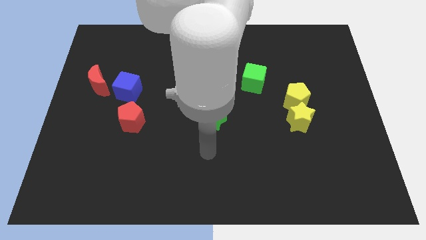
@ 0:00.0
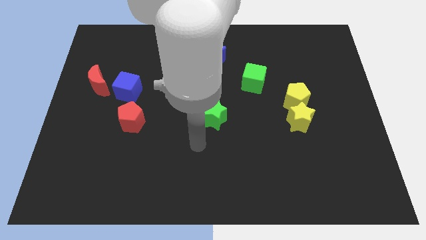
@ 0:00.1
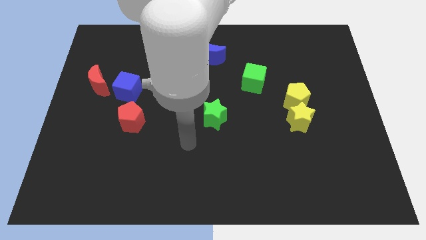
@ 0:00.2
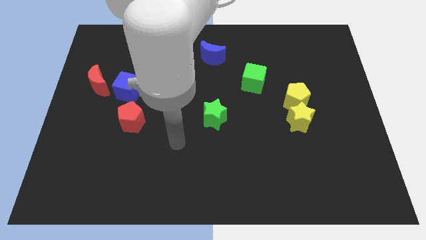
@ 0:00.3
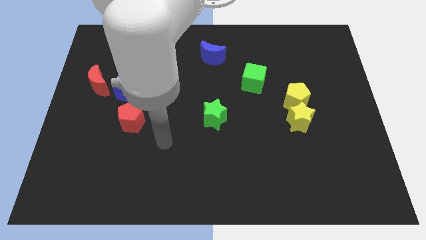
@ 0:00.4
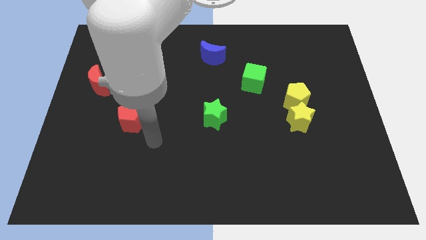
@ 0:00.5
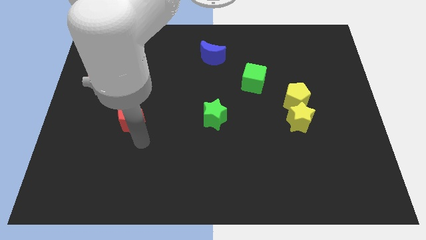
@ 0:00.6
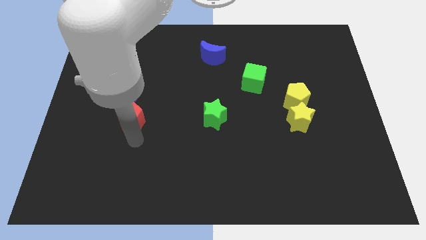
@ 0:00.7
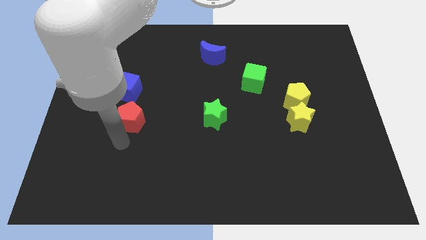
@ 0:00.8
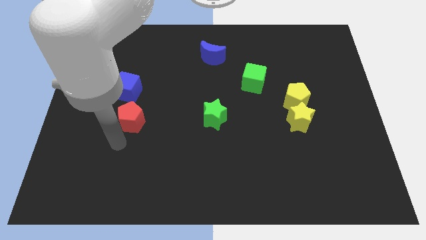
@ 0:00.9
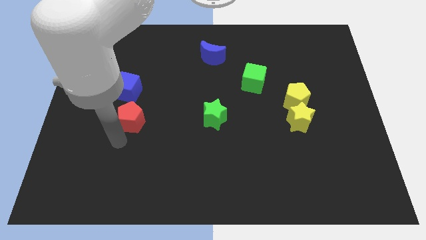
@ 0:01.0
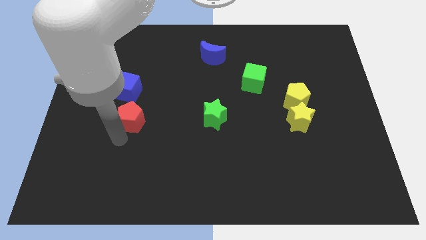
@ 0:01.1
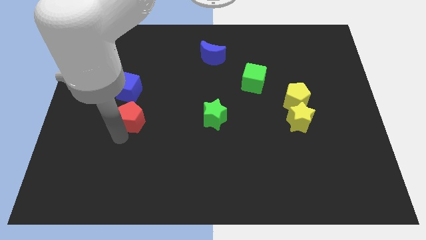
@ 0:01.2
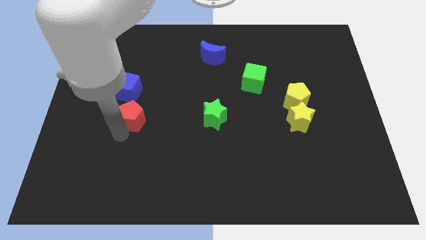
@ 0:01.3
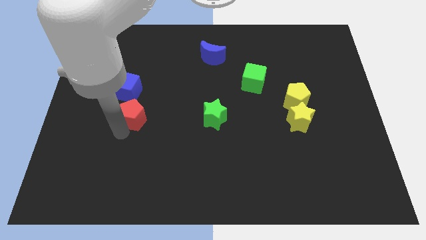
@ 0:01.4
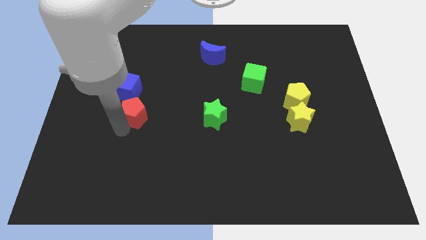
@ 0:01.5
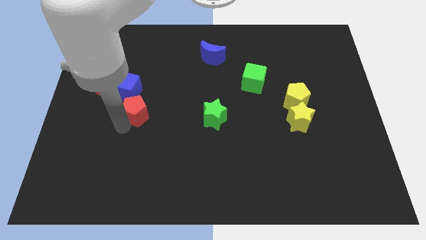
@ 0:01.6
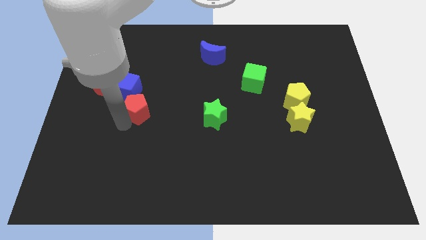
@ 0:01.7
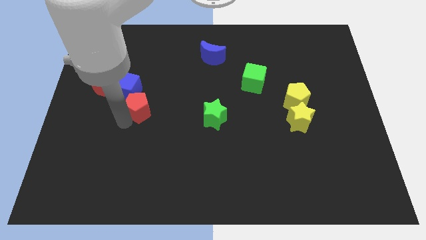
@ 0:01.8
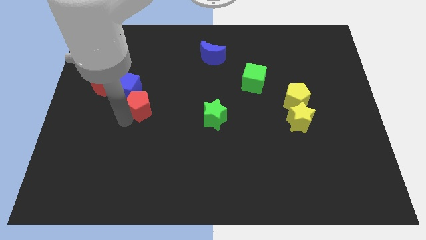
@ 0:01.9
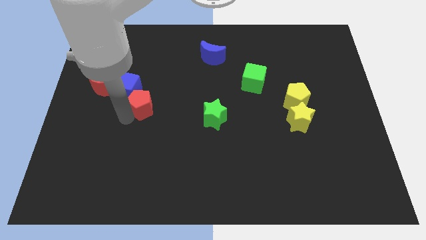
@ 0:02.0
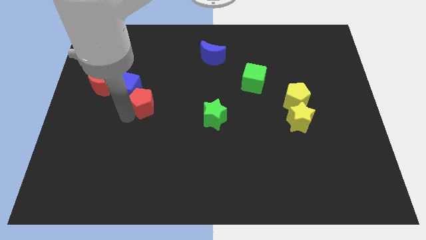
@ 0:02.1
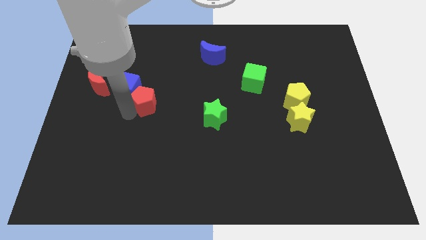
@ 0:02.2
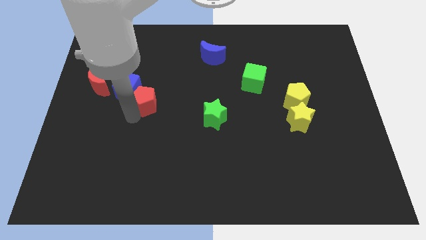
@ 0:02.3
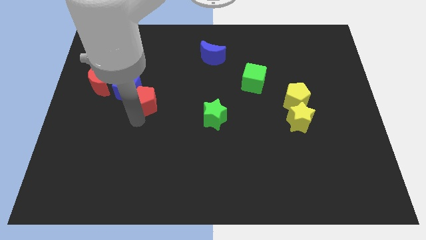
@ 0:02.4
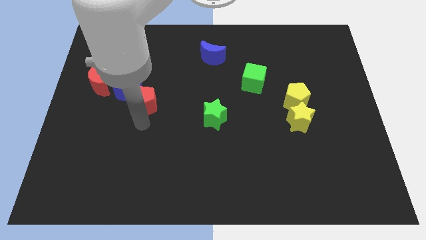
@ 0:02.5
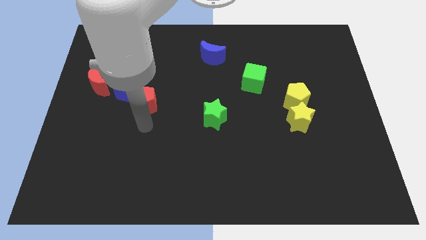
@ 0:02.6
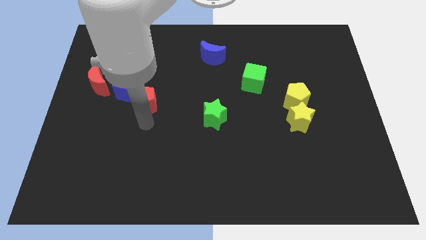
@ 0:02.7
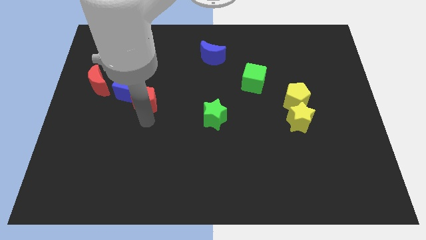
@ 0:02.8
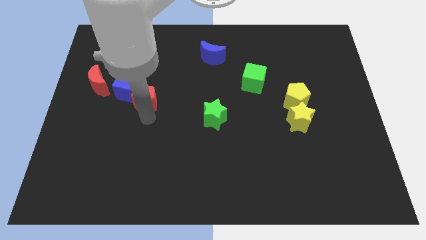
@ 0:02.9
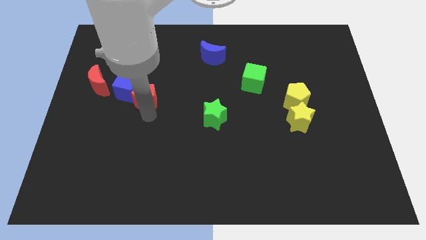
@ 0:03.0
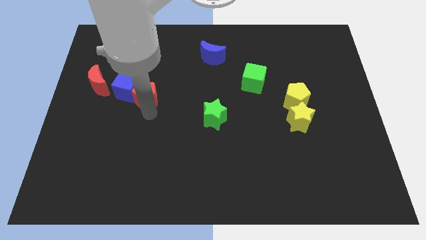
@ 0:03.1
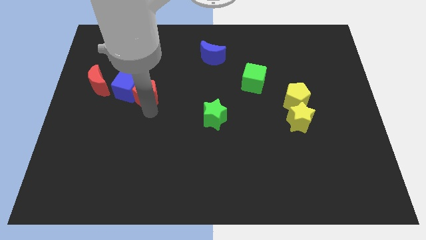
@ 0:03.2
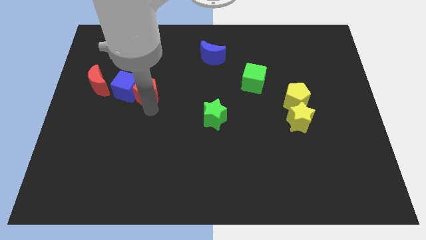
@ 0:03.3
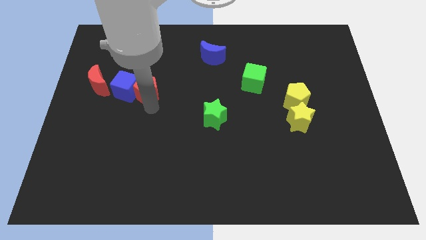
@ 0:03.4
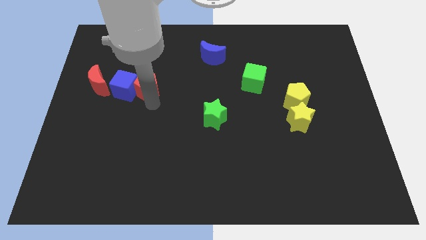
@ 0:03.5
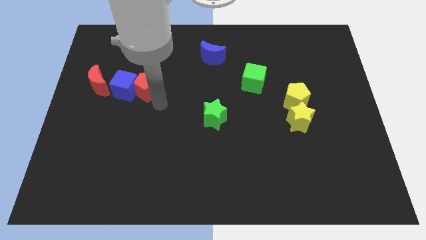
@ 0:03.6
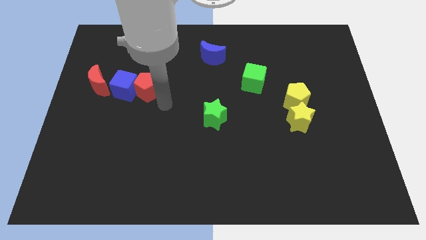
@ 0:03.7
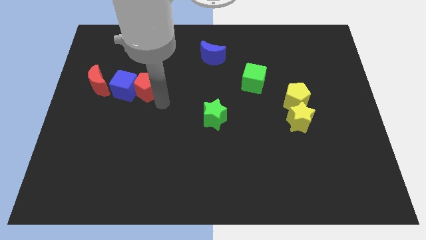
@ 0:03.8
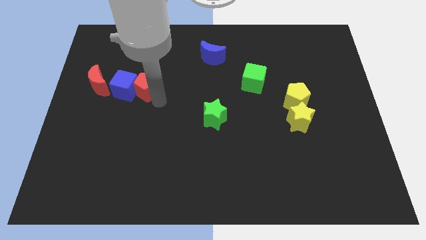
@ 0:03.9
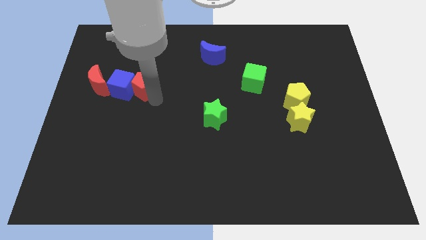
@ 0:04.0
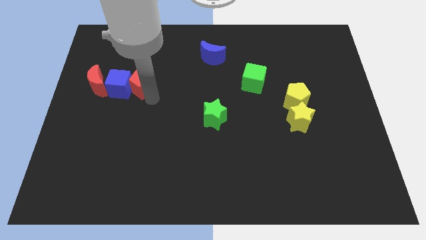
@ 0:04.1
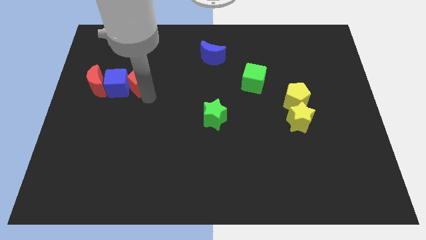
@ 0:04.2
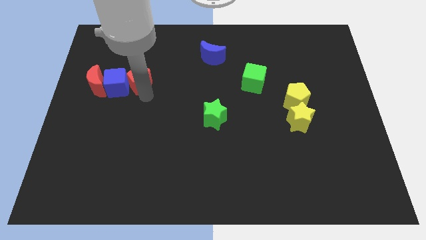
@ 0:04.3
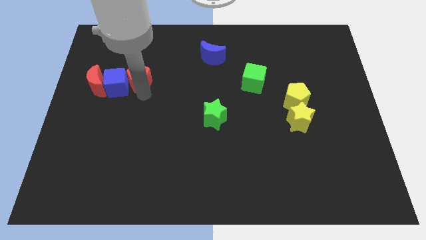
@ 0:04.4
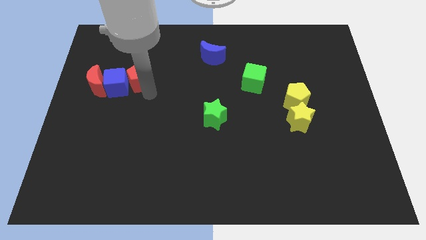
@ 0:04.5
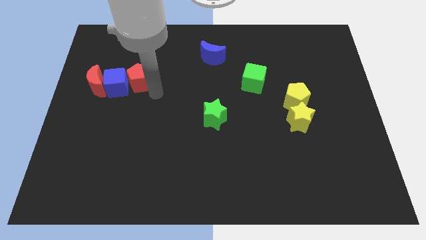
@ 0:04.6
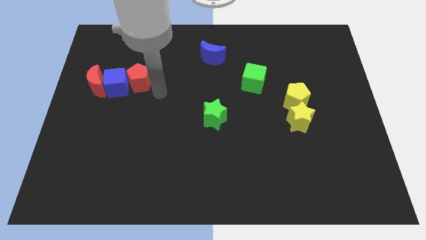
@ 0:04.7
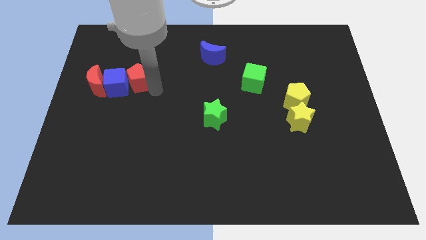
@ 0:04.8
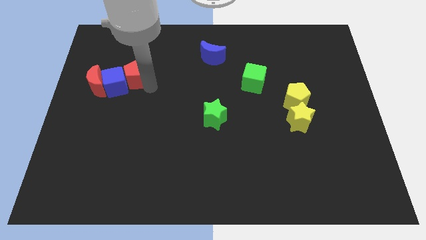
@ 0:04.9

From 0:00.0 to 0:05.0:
move the red pentagon to the top right of the red moon

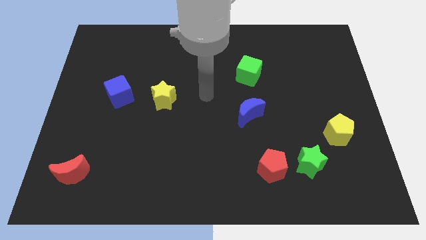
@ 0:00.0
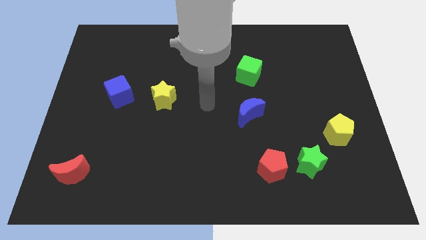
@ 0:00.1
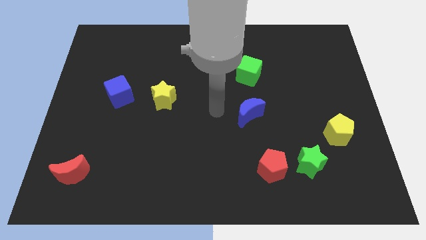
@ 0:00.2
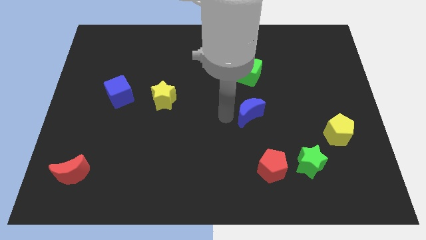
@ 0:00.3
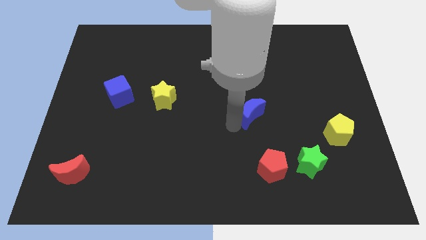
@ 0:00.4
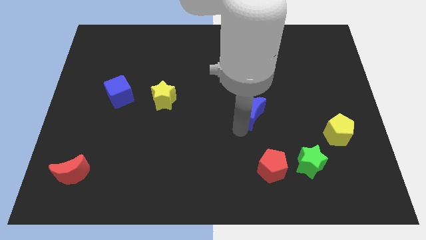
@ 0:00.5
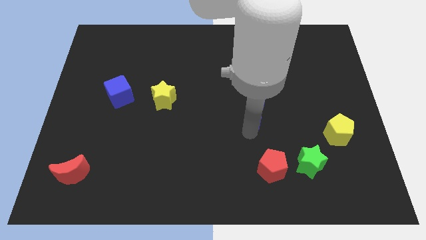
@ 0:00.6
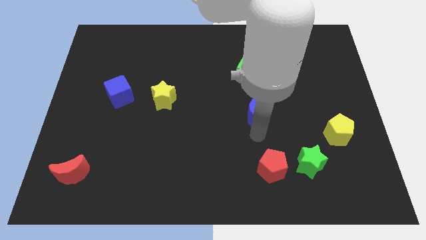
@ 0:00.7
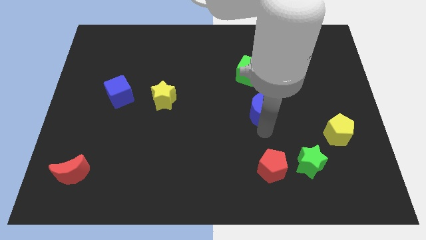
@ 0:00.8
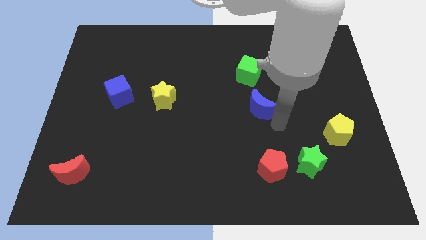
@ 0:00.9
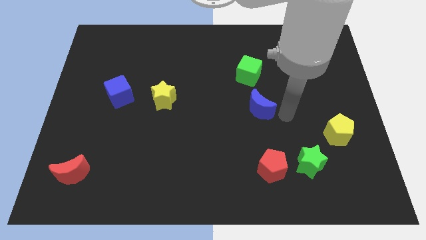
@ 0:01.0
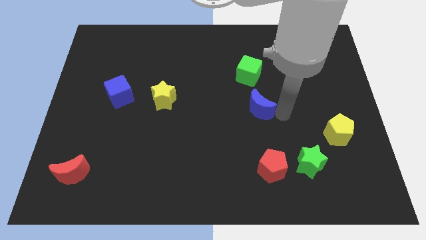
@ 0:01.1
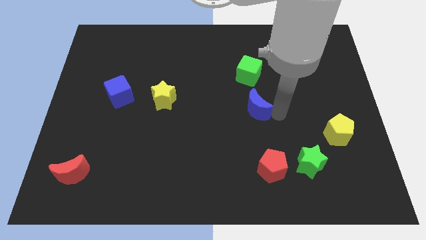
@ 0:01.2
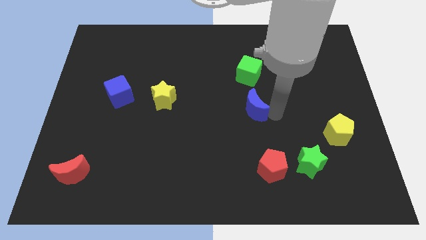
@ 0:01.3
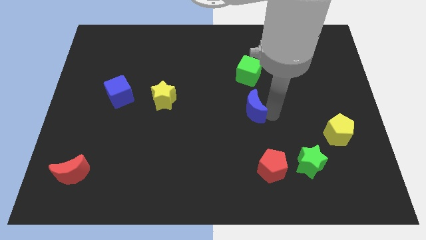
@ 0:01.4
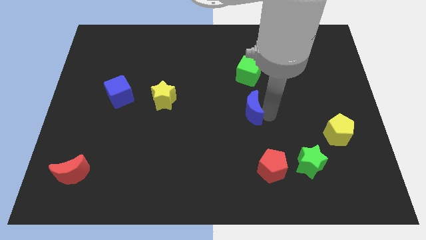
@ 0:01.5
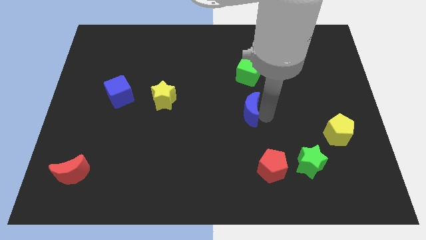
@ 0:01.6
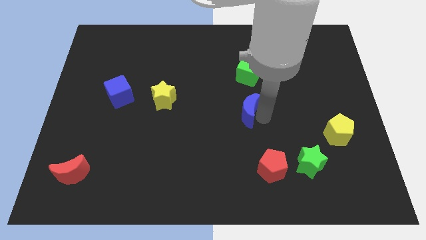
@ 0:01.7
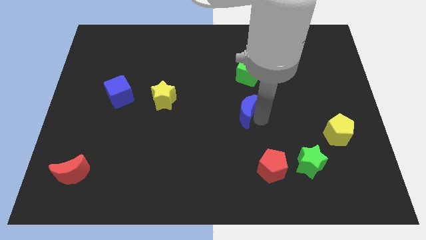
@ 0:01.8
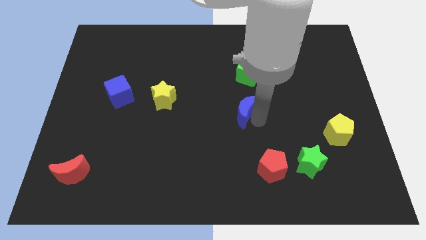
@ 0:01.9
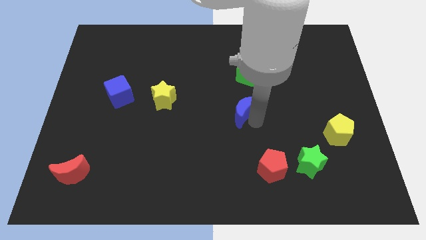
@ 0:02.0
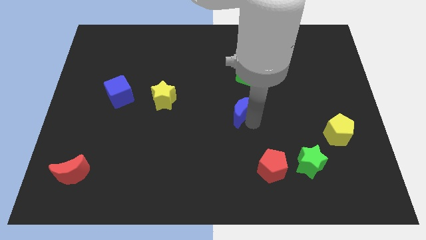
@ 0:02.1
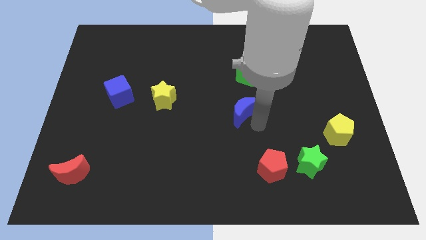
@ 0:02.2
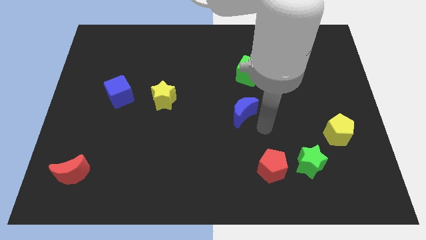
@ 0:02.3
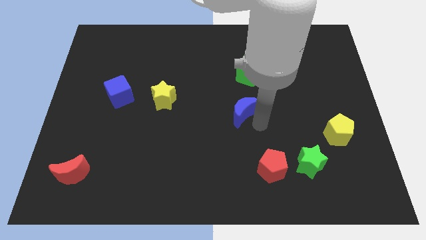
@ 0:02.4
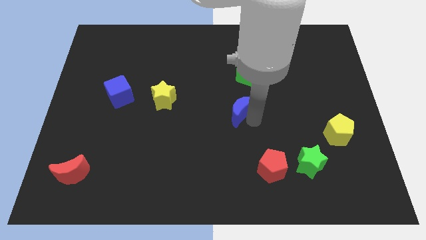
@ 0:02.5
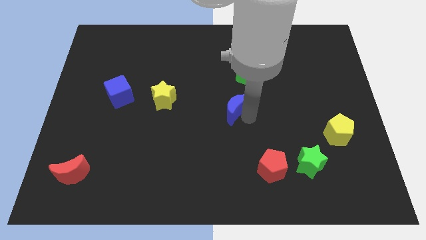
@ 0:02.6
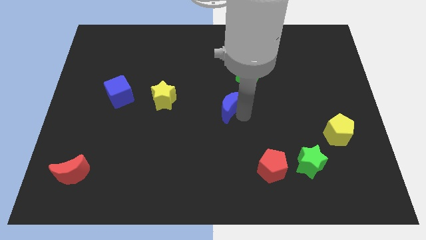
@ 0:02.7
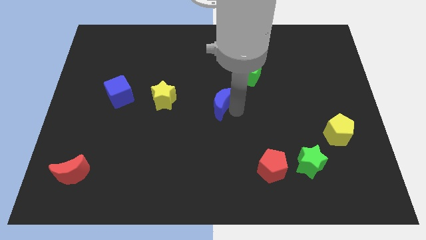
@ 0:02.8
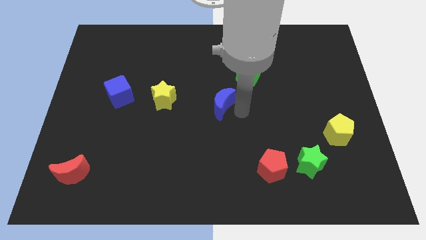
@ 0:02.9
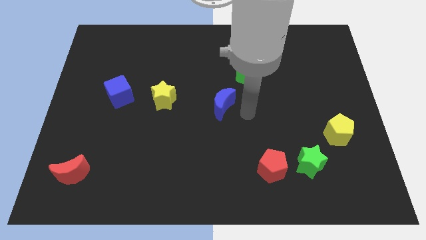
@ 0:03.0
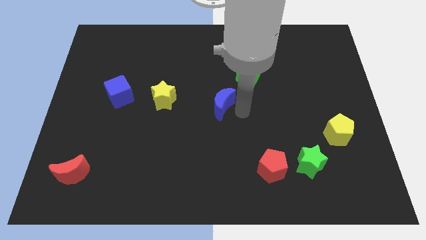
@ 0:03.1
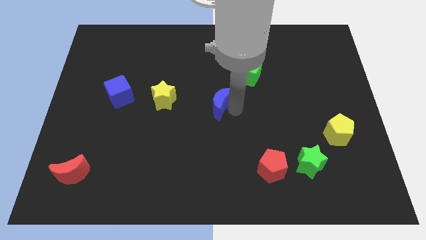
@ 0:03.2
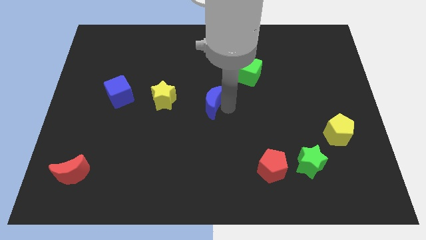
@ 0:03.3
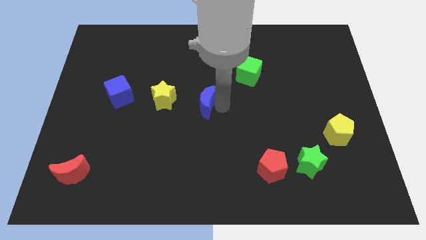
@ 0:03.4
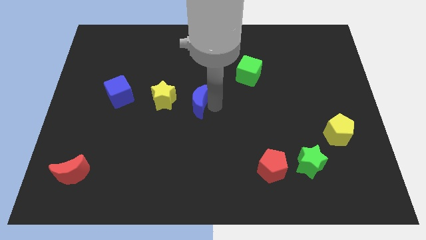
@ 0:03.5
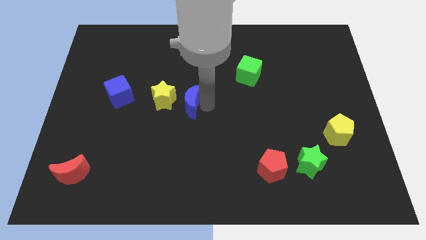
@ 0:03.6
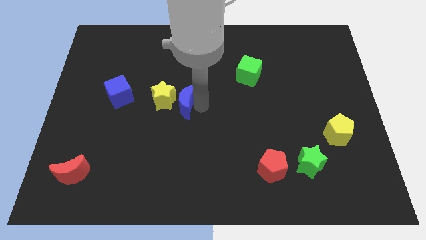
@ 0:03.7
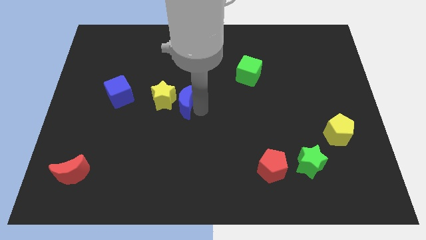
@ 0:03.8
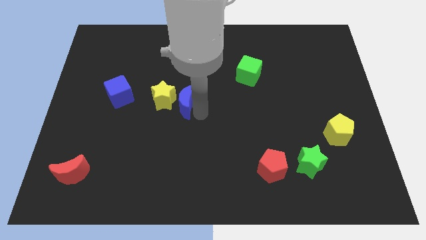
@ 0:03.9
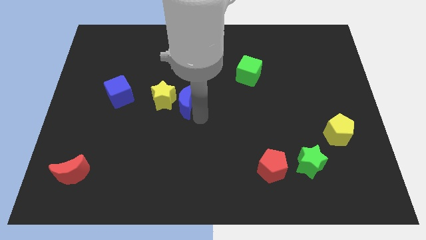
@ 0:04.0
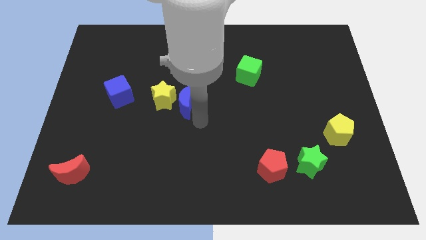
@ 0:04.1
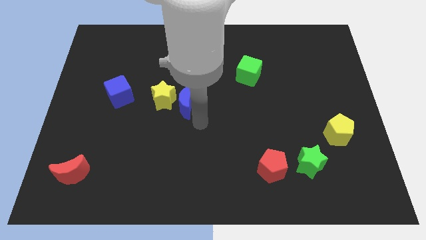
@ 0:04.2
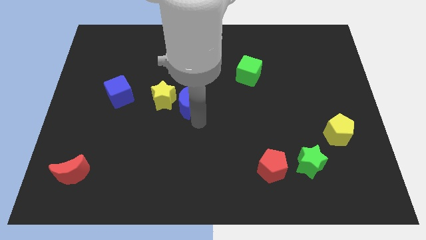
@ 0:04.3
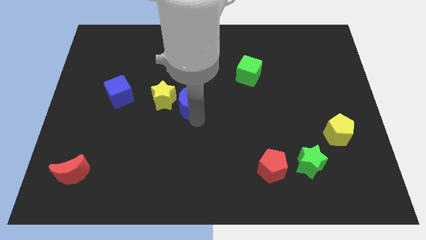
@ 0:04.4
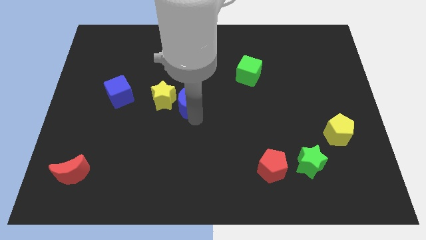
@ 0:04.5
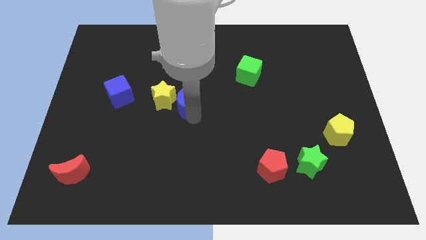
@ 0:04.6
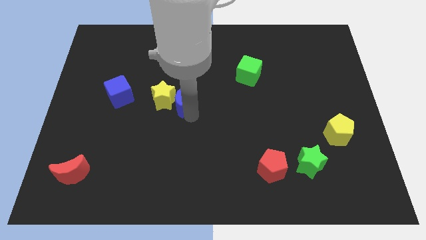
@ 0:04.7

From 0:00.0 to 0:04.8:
move the blue moon right of the blue cube
